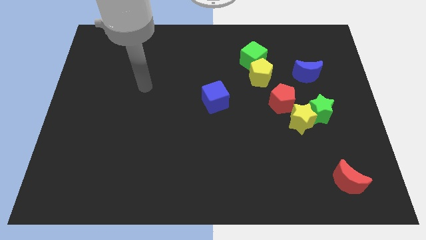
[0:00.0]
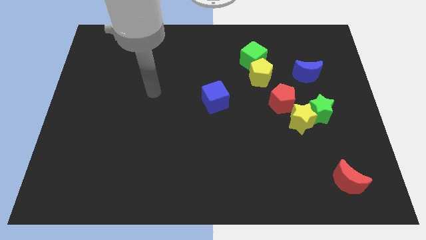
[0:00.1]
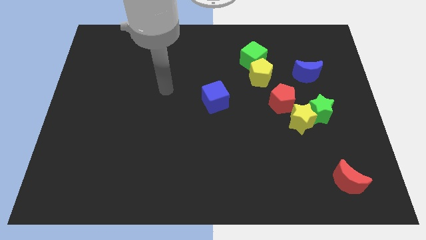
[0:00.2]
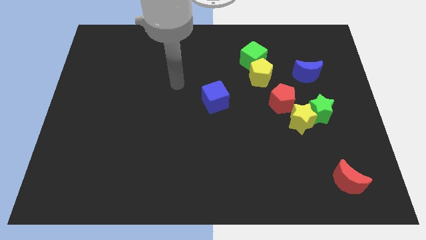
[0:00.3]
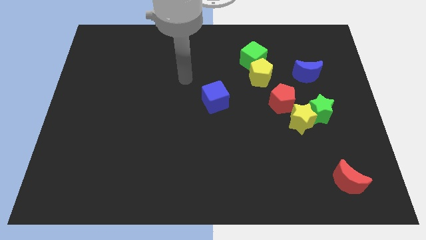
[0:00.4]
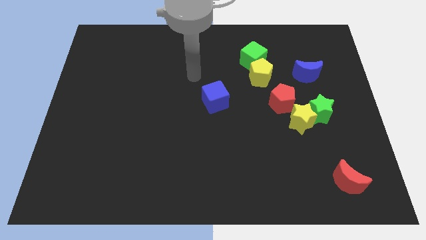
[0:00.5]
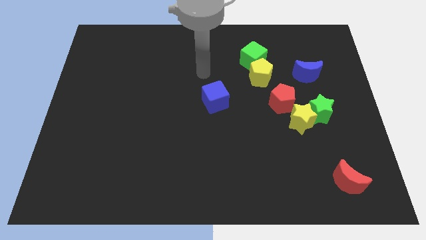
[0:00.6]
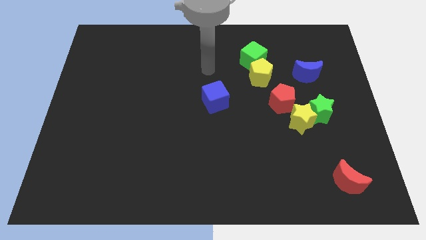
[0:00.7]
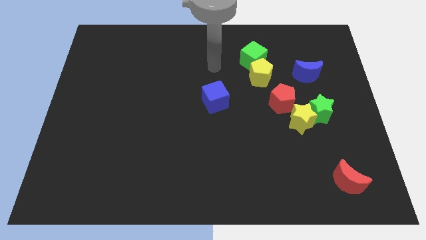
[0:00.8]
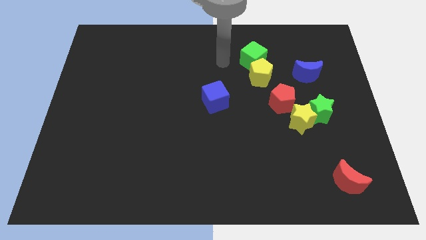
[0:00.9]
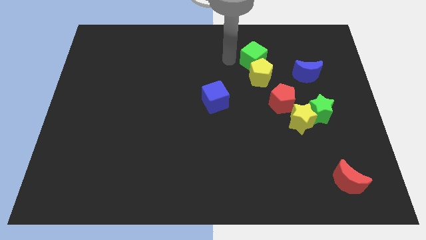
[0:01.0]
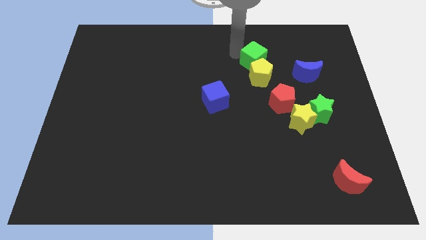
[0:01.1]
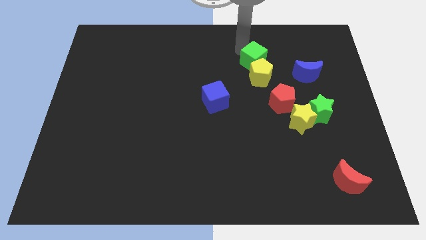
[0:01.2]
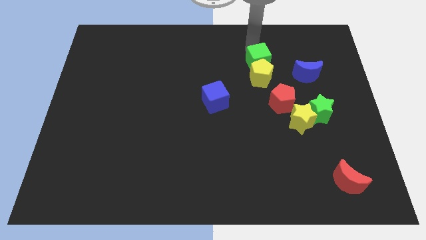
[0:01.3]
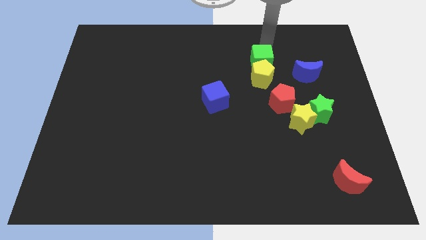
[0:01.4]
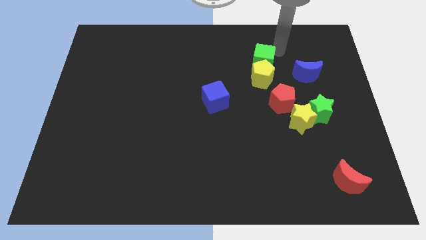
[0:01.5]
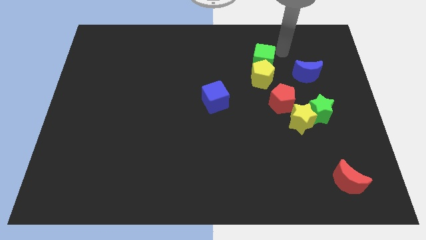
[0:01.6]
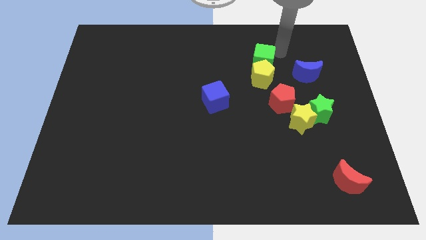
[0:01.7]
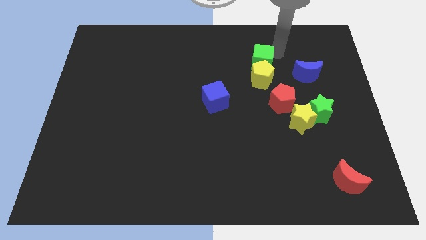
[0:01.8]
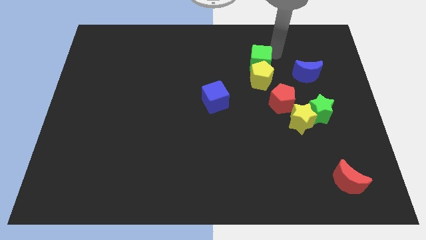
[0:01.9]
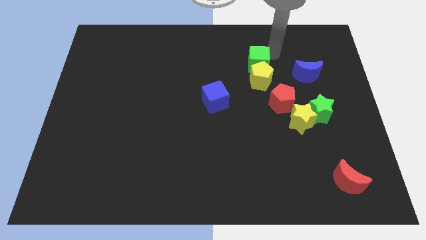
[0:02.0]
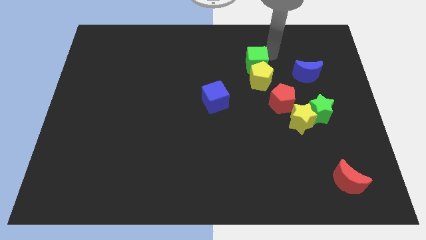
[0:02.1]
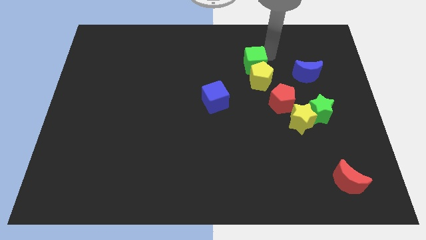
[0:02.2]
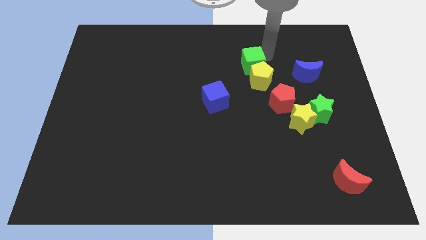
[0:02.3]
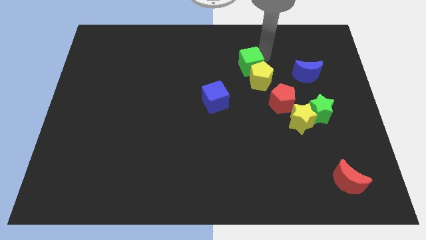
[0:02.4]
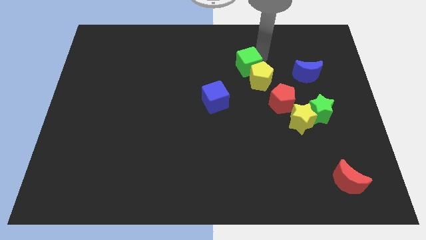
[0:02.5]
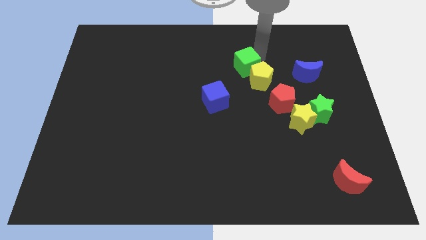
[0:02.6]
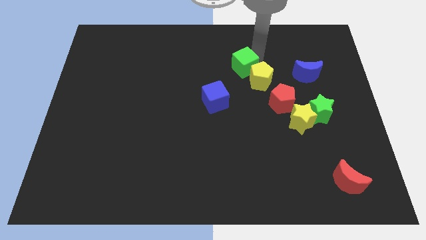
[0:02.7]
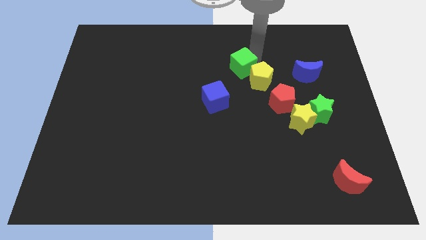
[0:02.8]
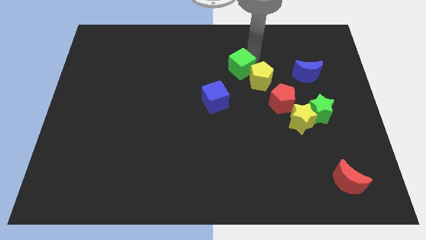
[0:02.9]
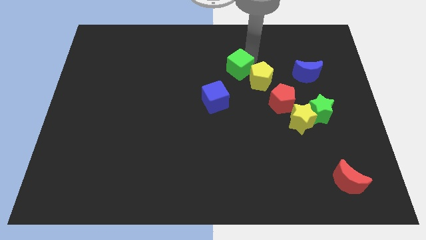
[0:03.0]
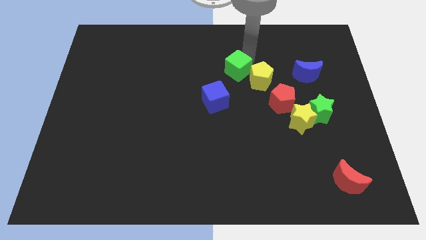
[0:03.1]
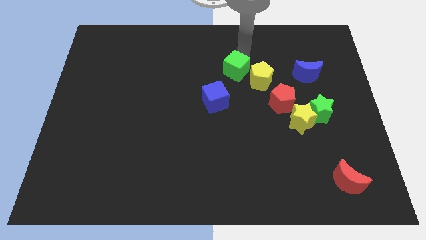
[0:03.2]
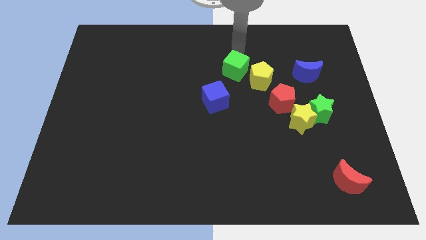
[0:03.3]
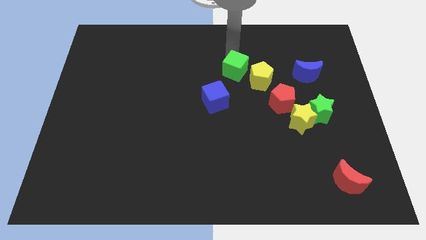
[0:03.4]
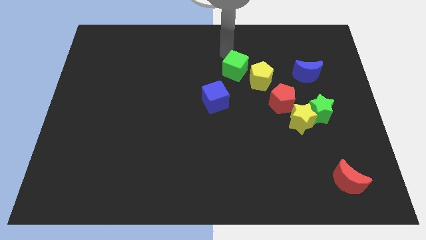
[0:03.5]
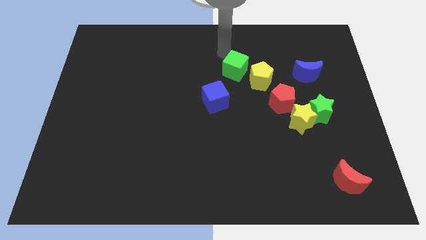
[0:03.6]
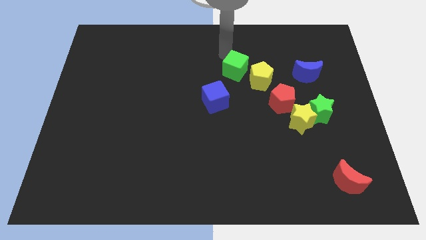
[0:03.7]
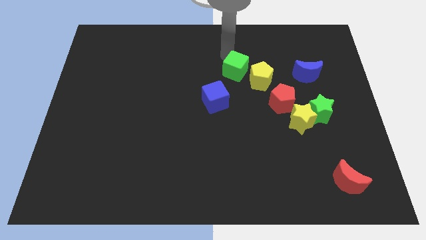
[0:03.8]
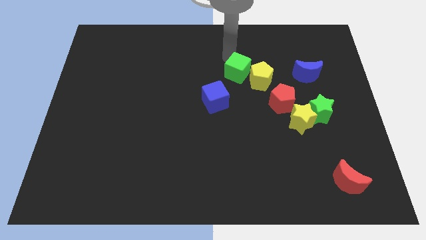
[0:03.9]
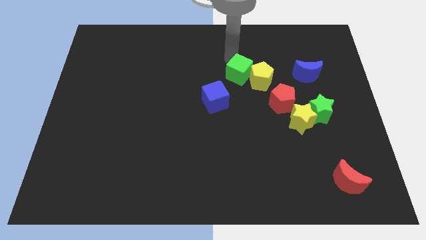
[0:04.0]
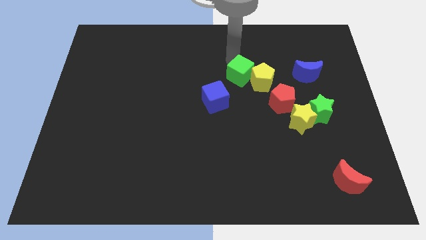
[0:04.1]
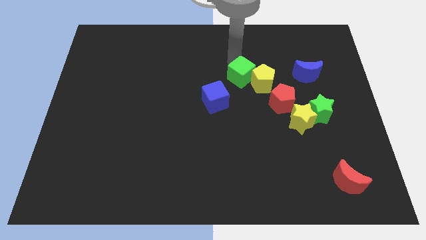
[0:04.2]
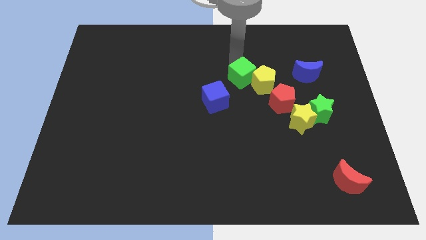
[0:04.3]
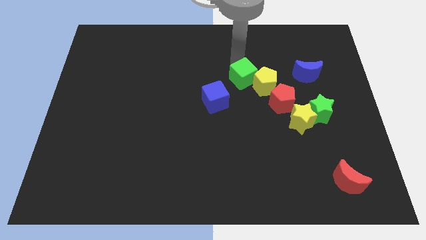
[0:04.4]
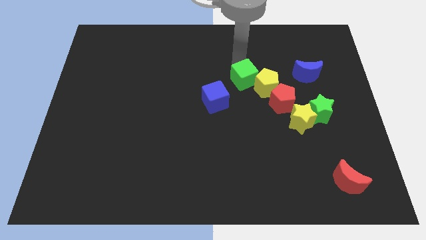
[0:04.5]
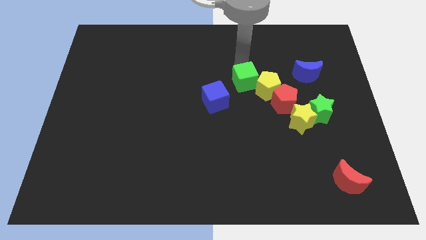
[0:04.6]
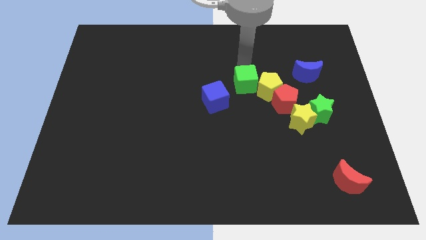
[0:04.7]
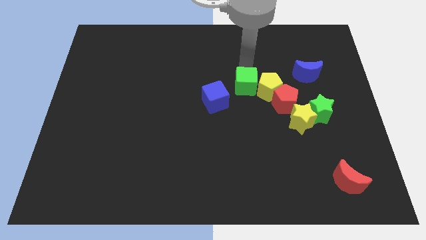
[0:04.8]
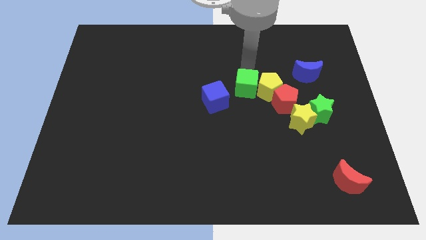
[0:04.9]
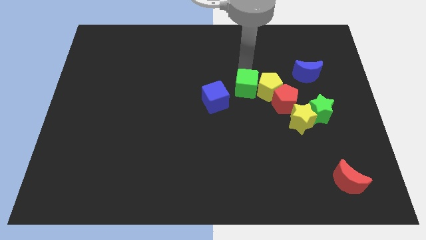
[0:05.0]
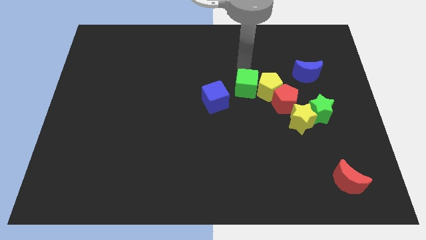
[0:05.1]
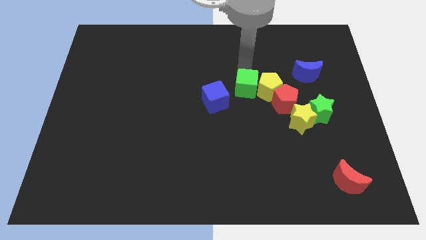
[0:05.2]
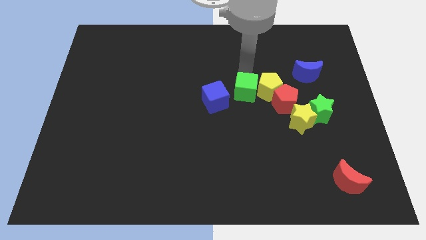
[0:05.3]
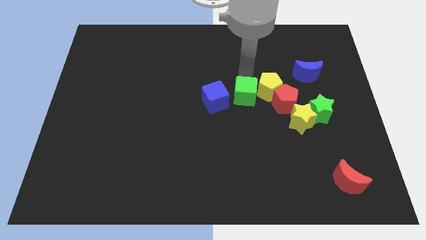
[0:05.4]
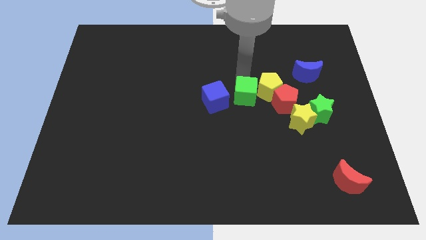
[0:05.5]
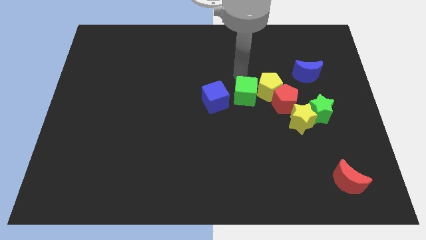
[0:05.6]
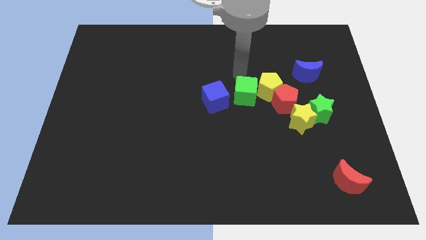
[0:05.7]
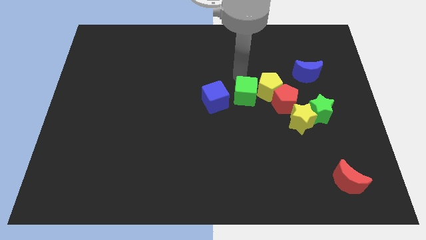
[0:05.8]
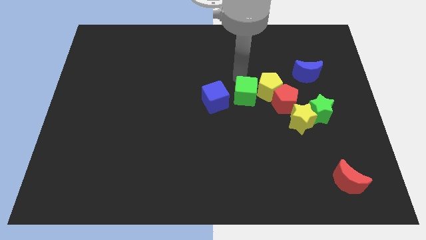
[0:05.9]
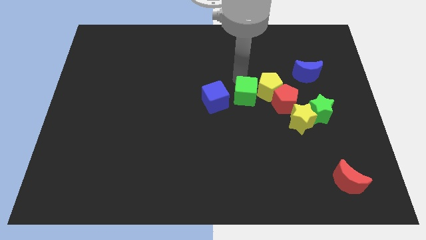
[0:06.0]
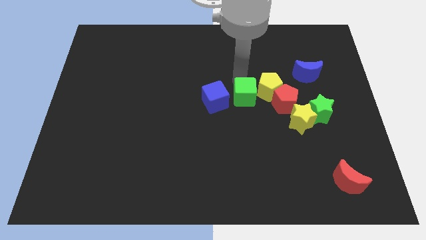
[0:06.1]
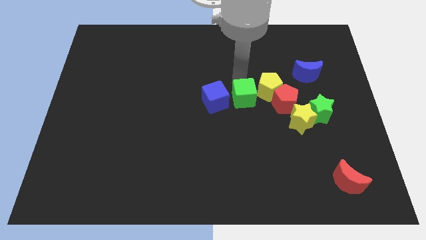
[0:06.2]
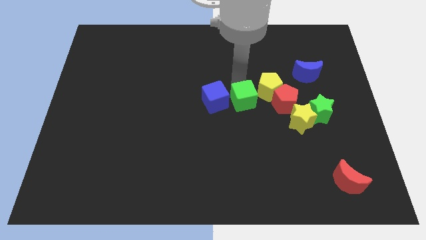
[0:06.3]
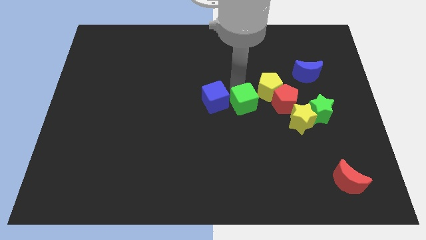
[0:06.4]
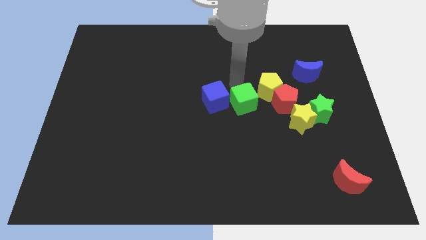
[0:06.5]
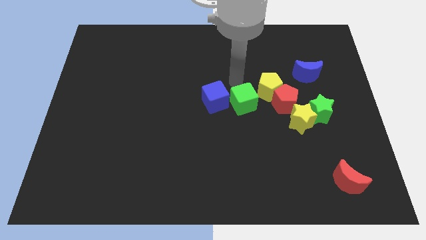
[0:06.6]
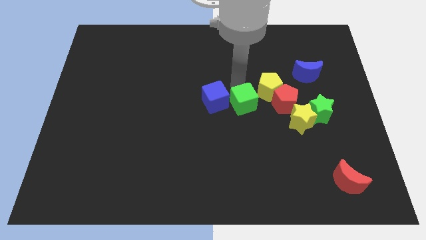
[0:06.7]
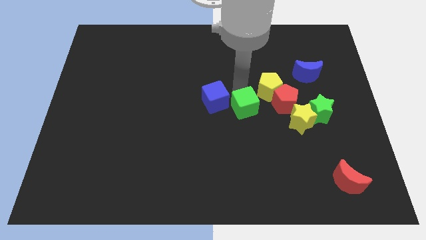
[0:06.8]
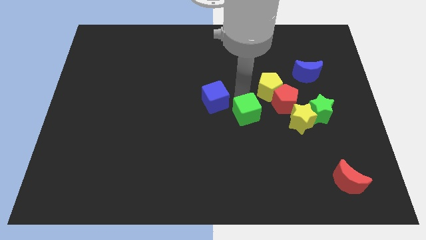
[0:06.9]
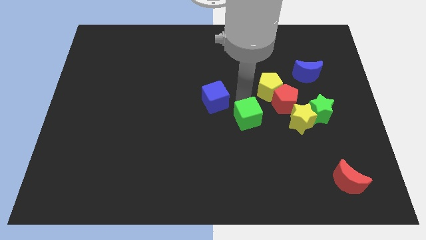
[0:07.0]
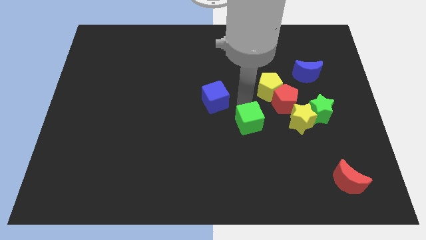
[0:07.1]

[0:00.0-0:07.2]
push the green cube downwards

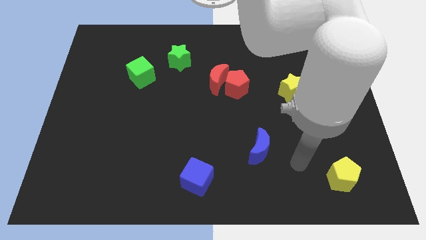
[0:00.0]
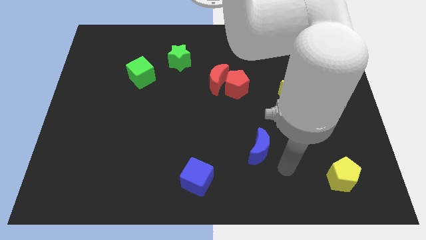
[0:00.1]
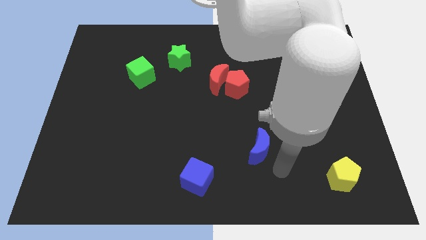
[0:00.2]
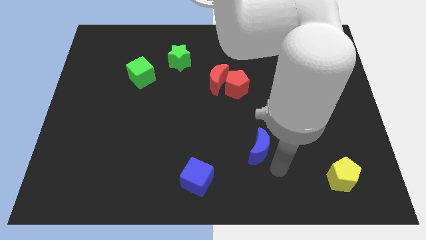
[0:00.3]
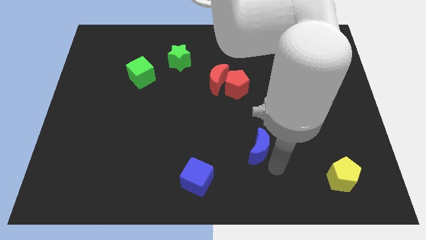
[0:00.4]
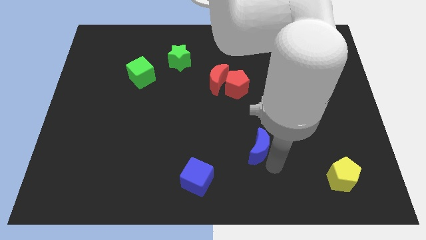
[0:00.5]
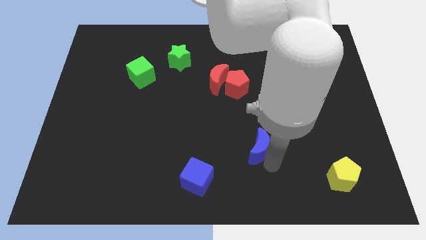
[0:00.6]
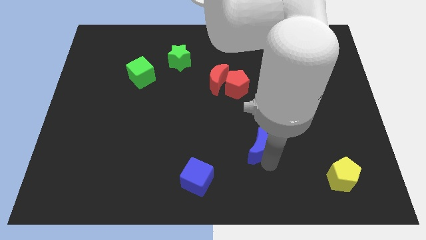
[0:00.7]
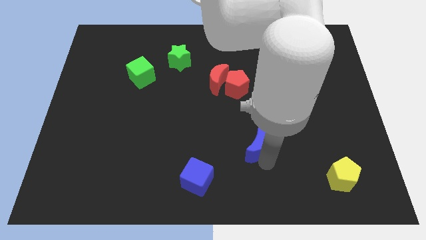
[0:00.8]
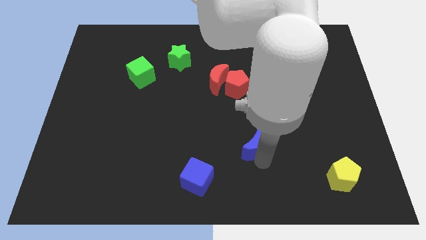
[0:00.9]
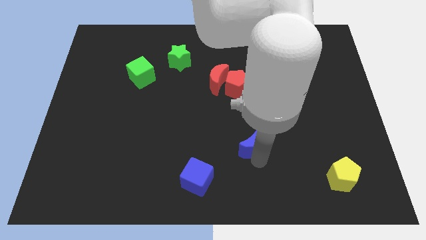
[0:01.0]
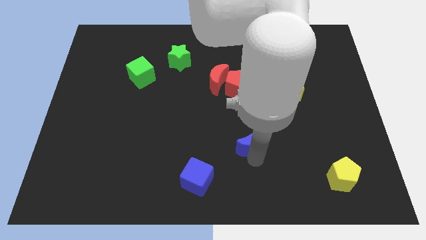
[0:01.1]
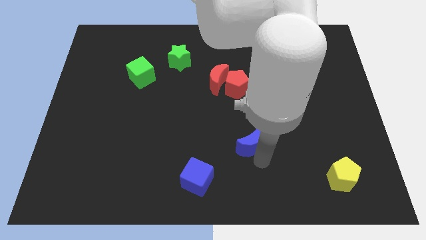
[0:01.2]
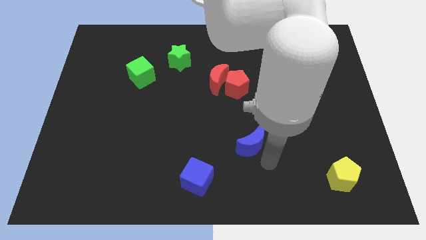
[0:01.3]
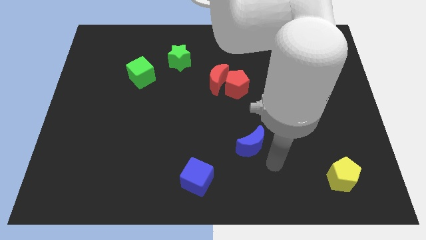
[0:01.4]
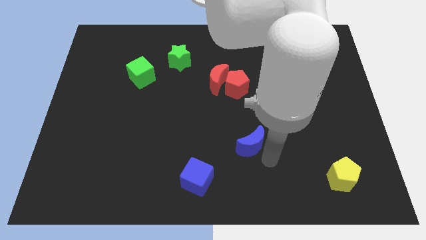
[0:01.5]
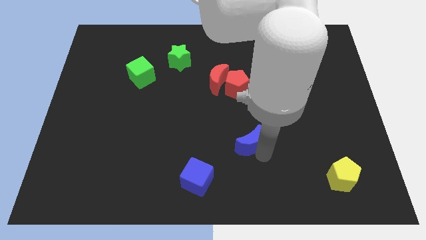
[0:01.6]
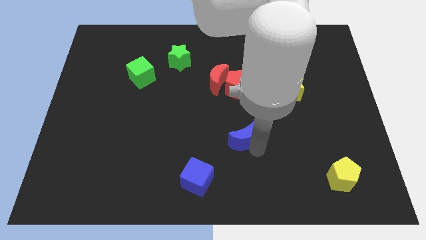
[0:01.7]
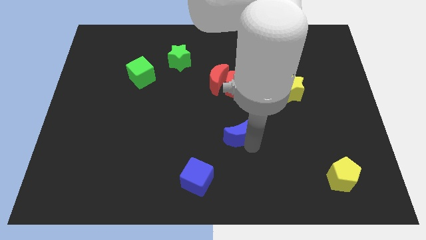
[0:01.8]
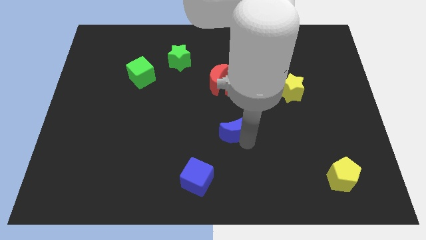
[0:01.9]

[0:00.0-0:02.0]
push the blue moon a little bit diagonally up and left
